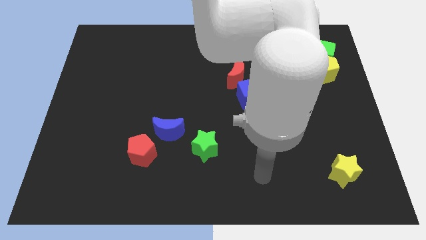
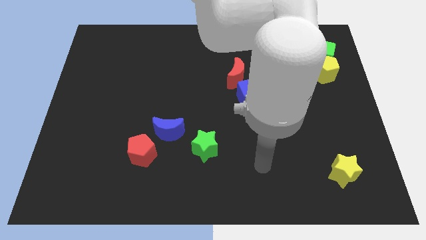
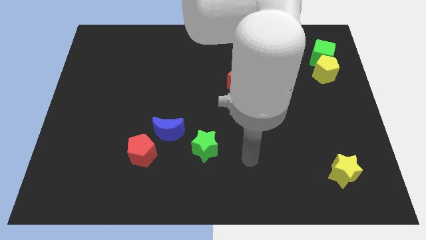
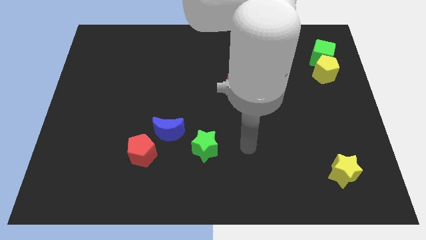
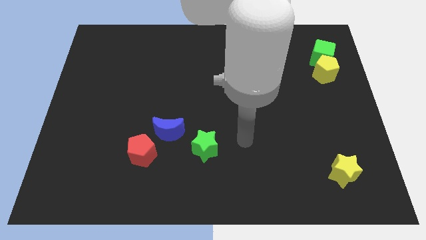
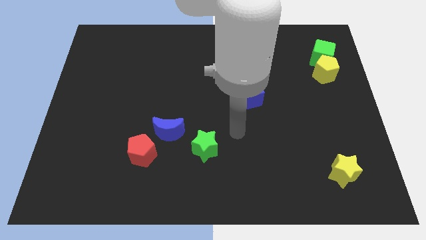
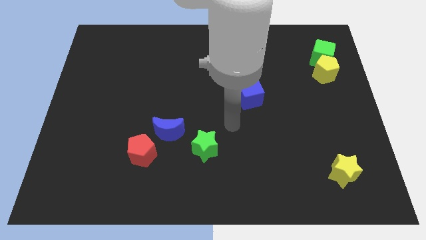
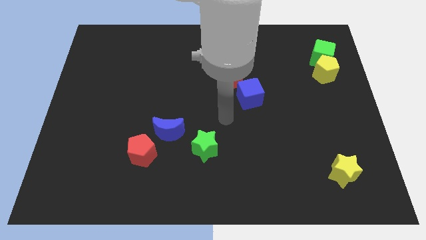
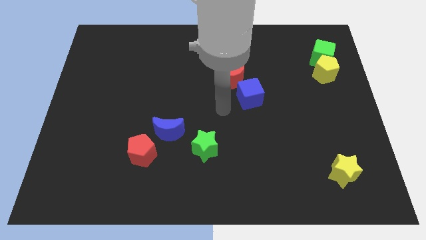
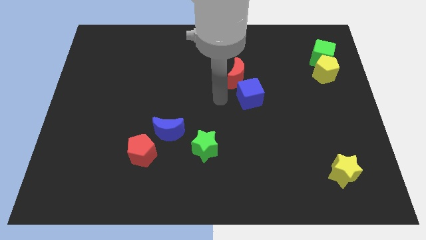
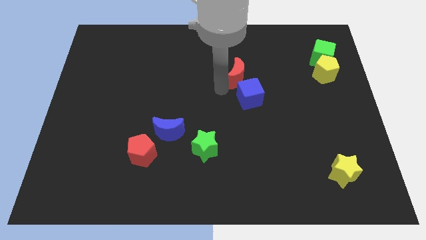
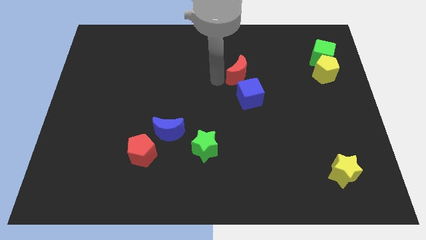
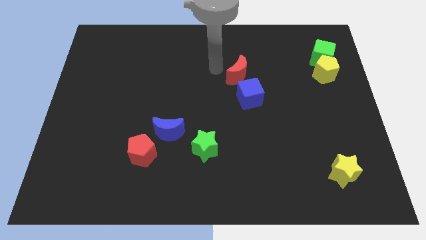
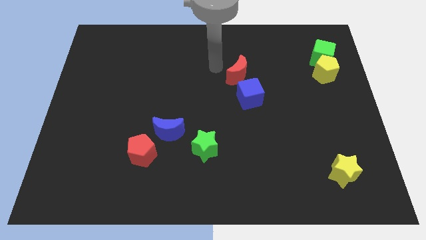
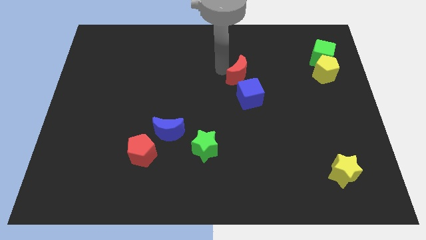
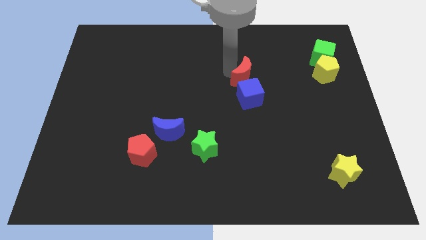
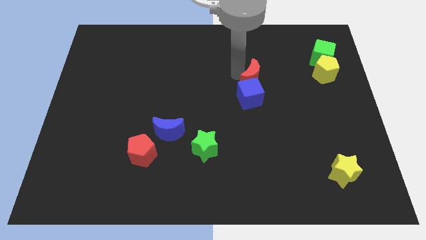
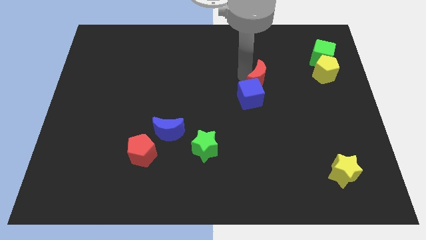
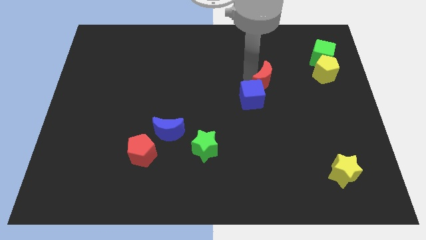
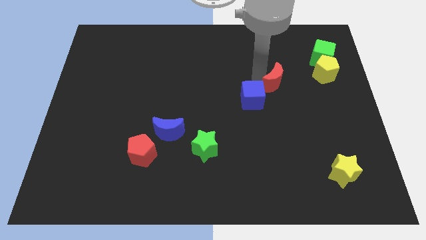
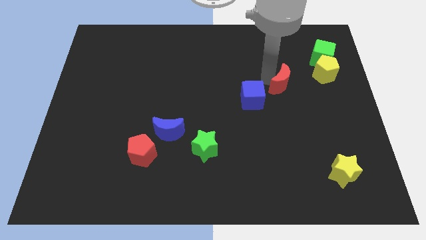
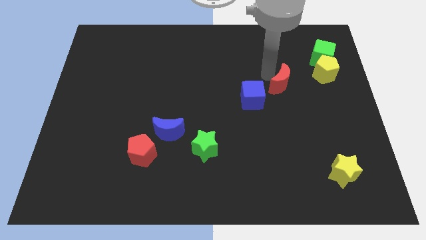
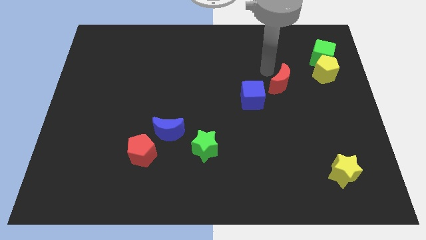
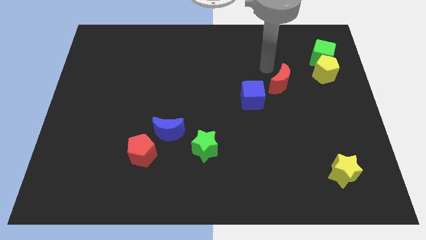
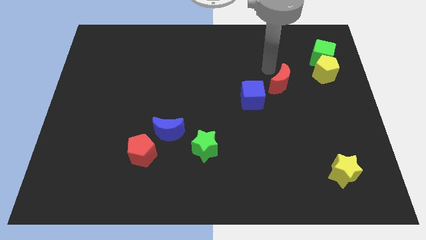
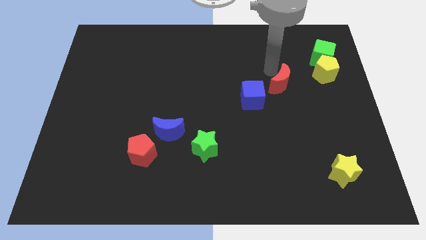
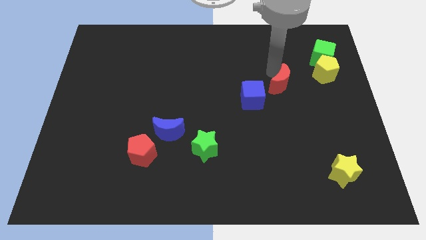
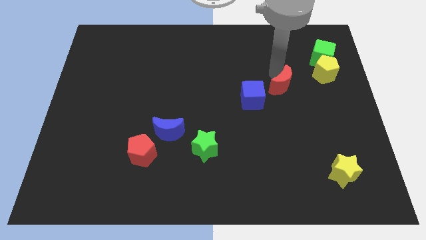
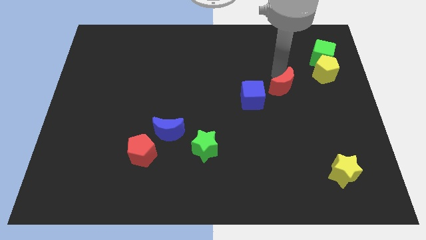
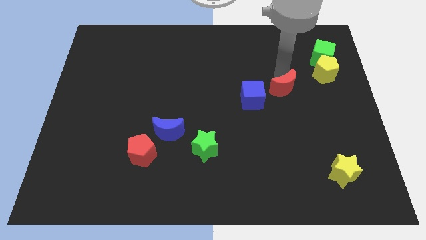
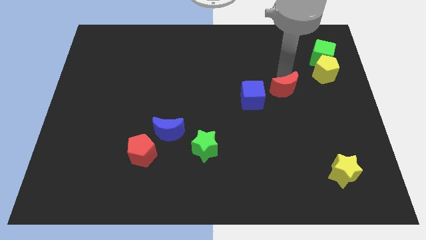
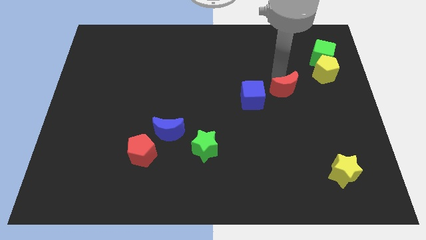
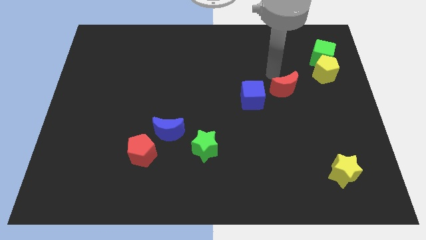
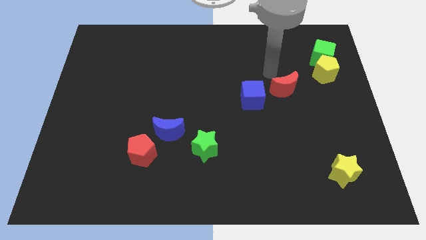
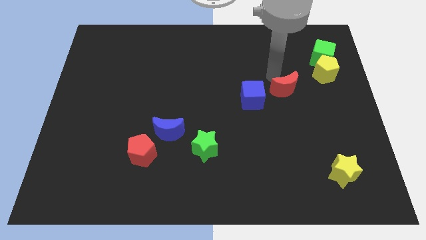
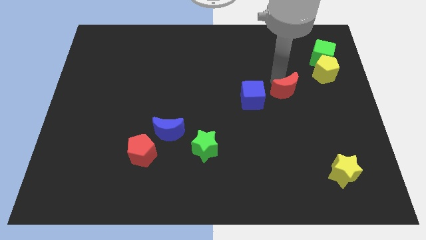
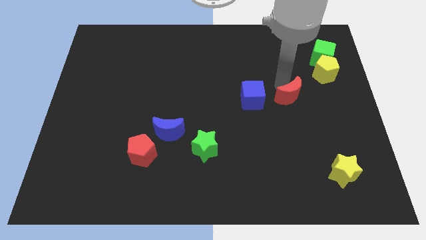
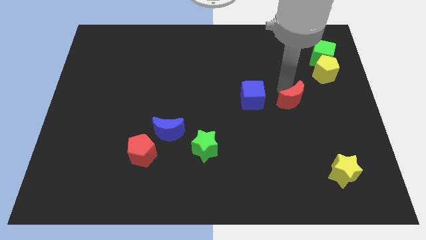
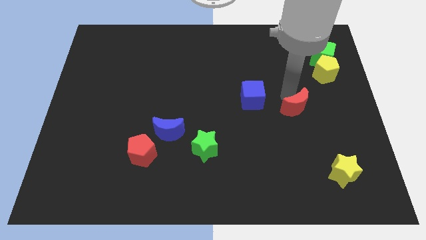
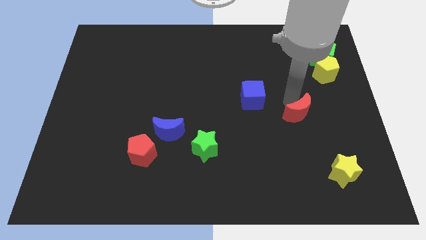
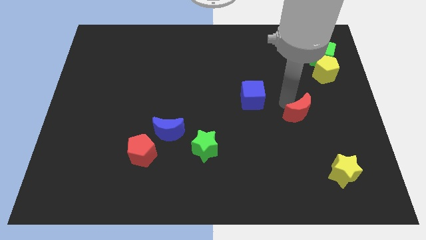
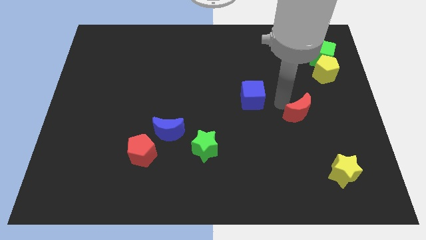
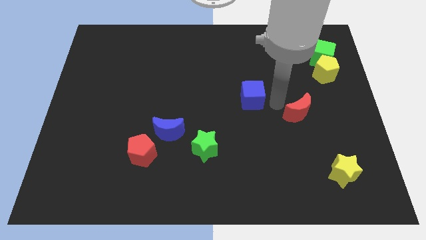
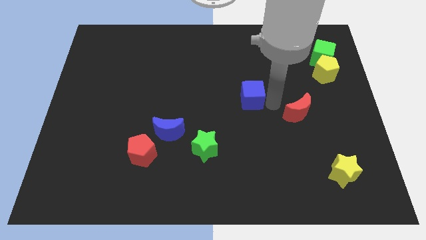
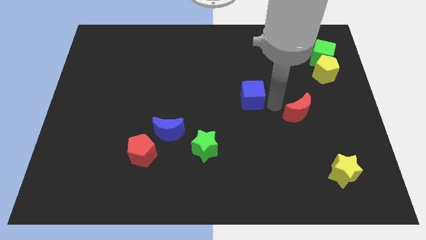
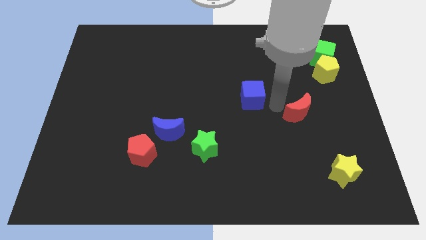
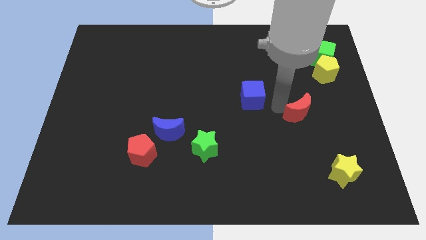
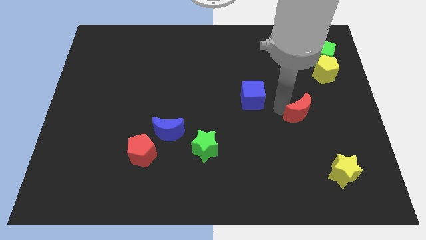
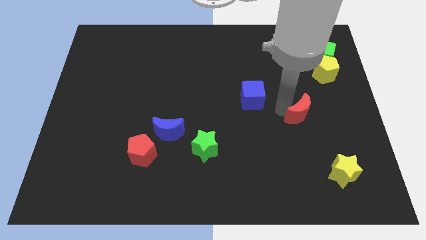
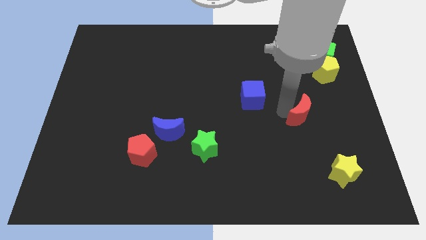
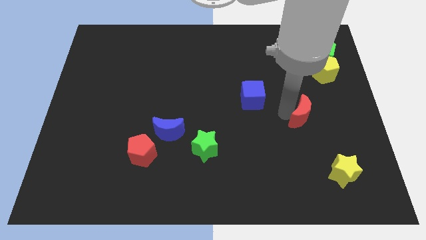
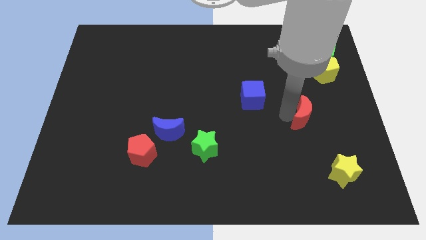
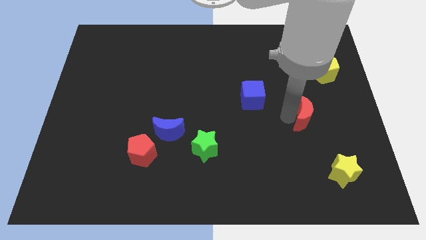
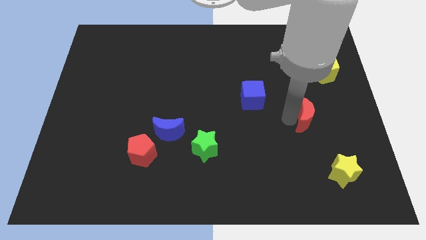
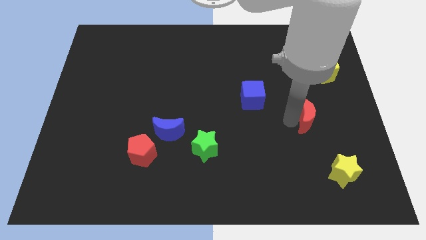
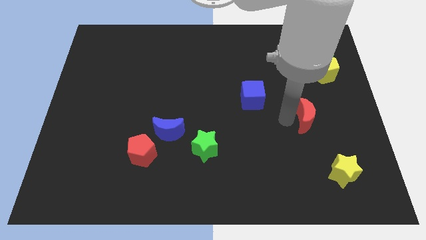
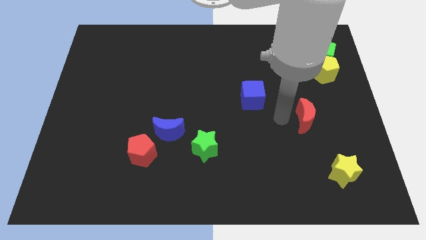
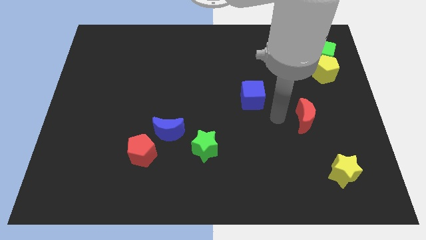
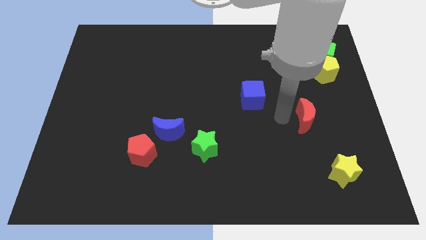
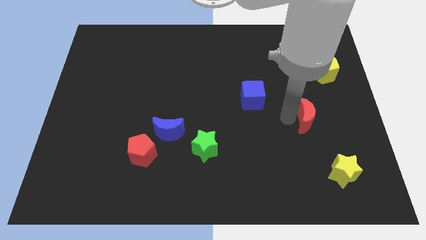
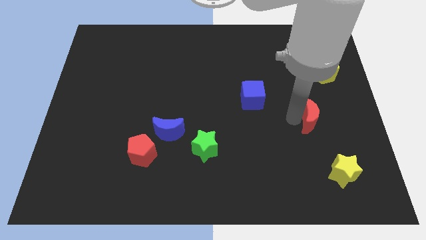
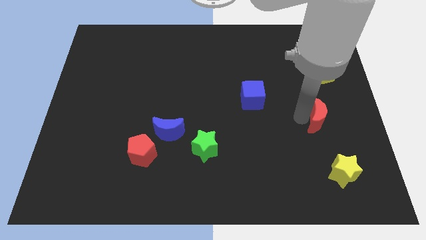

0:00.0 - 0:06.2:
put the red moon to the top side of the yellow star
